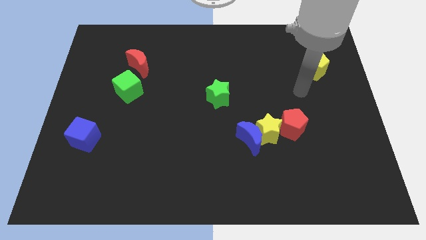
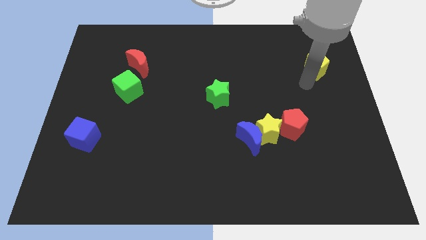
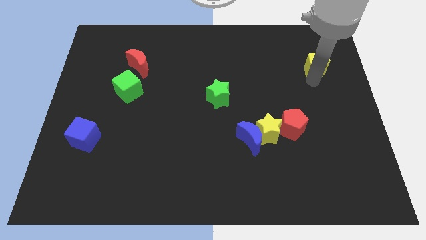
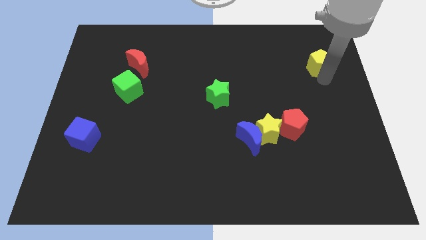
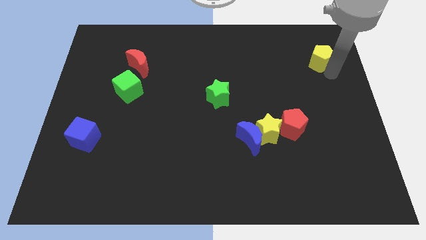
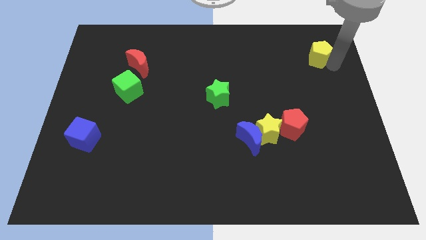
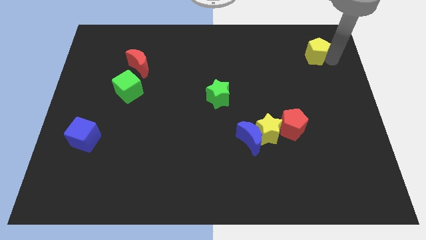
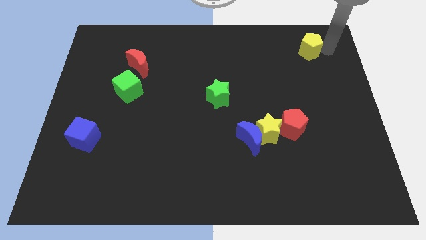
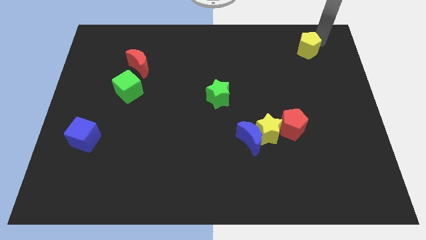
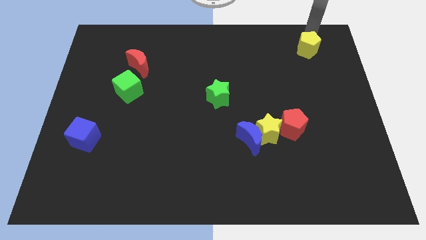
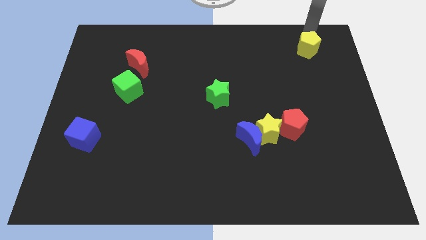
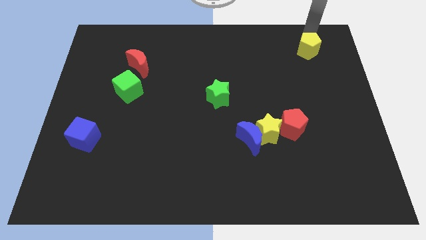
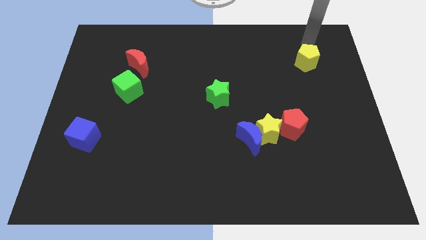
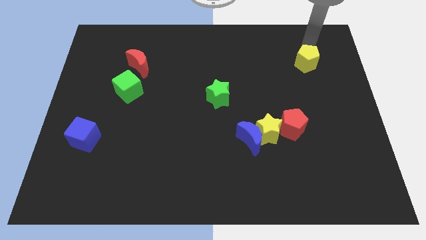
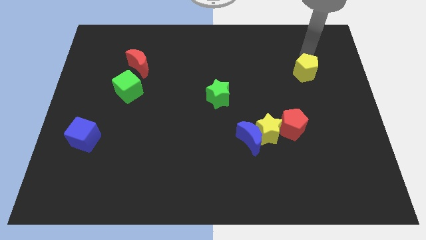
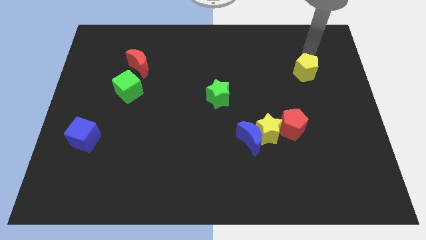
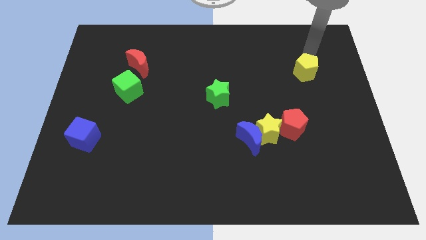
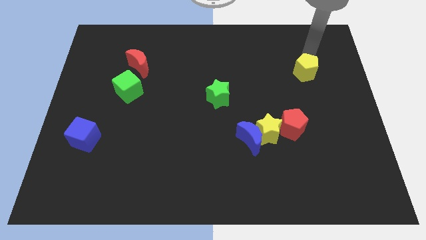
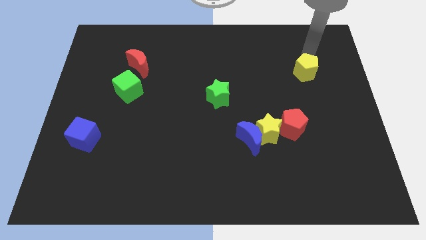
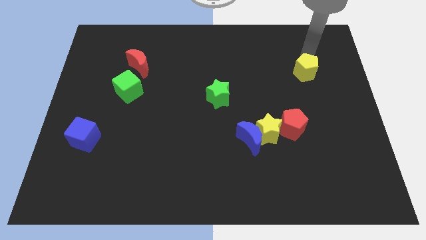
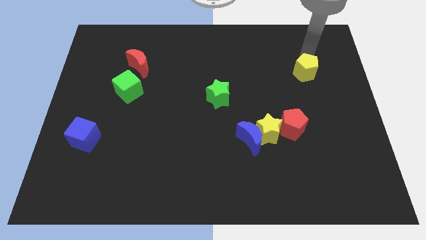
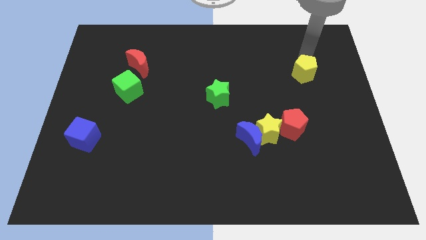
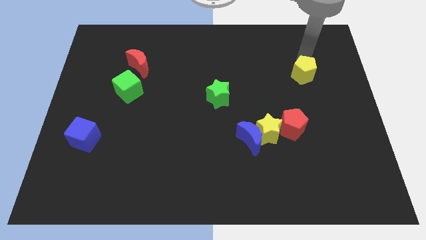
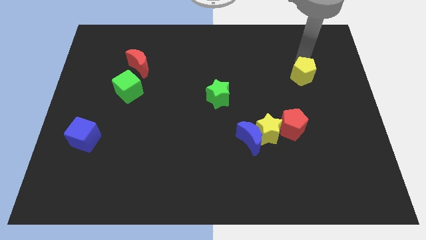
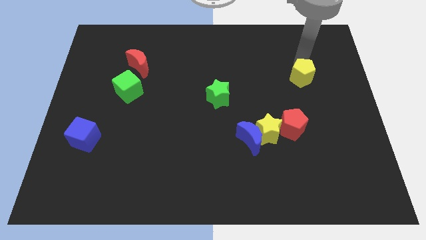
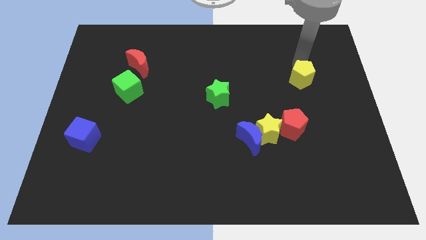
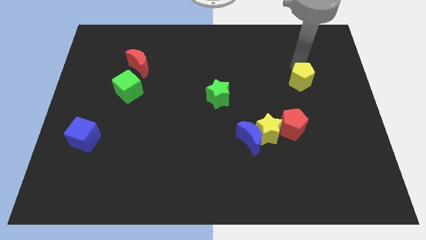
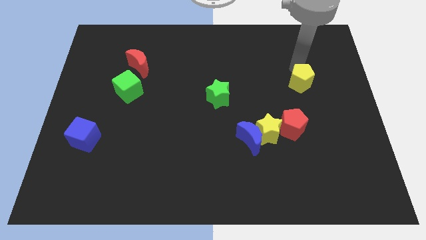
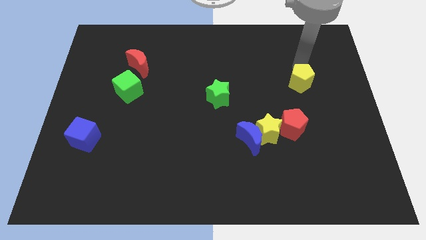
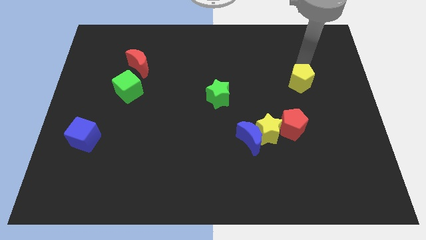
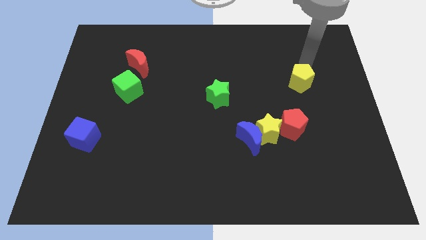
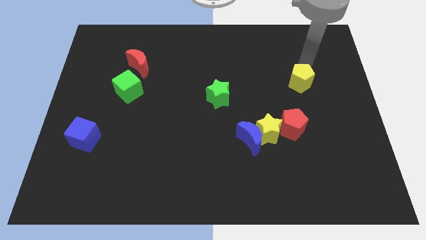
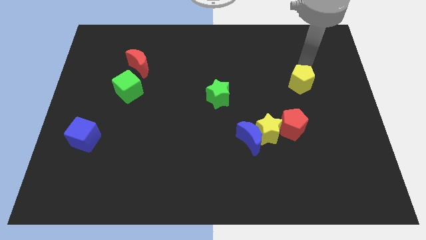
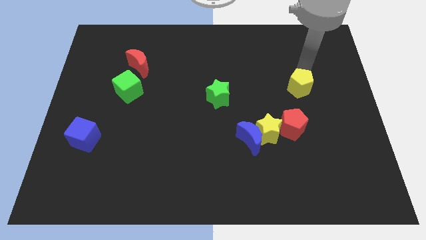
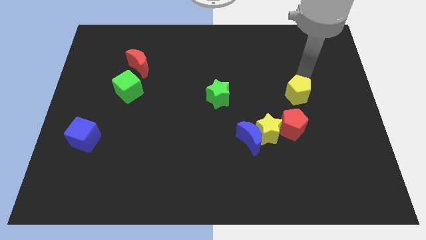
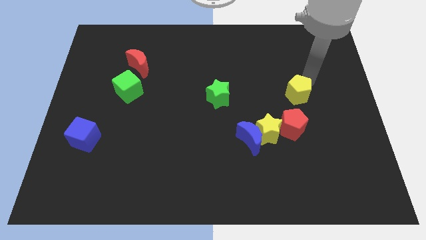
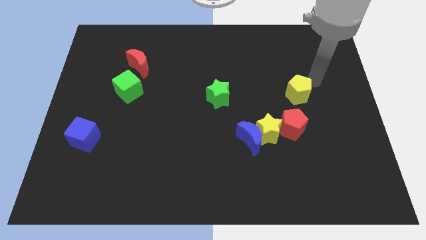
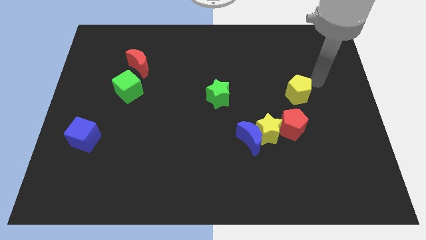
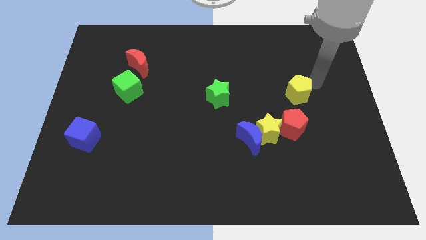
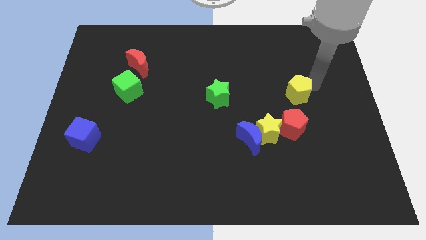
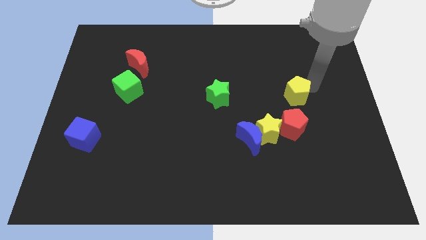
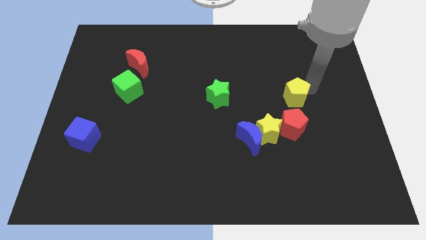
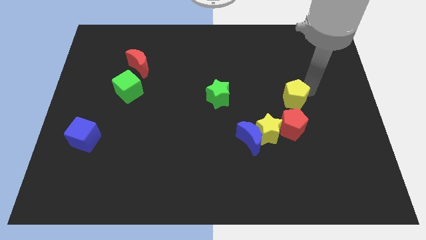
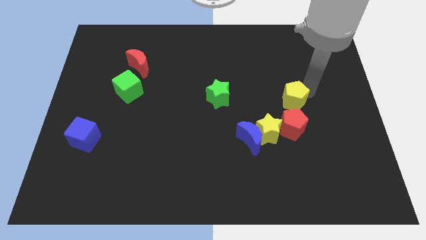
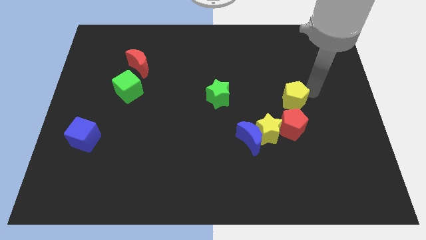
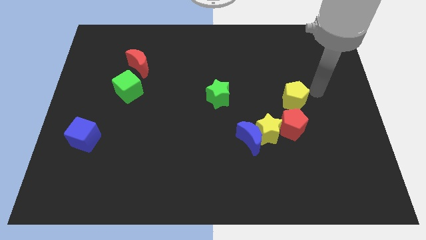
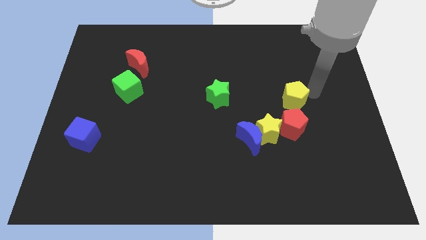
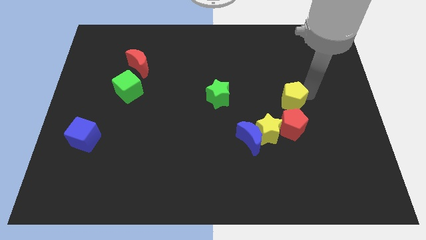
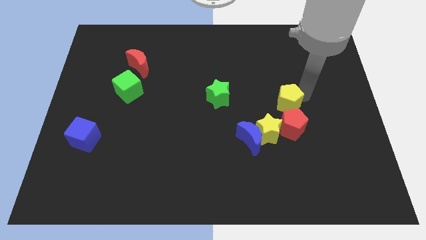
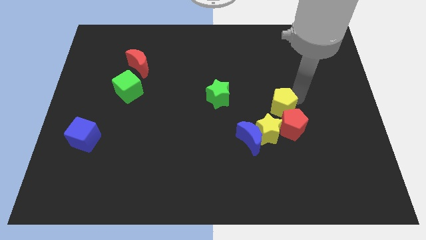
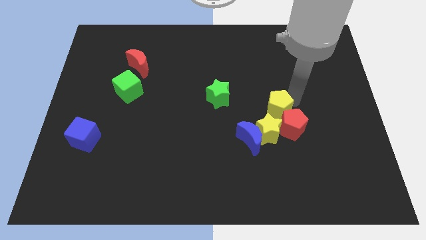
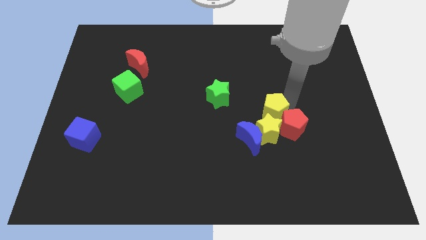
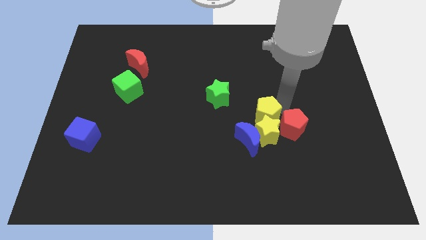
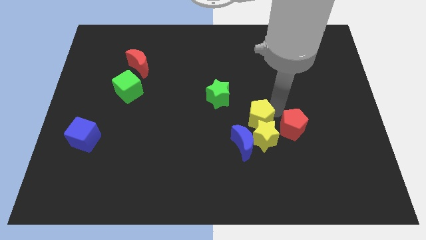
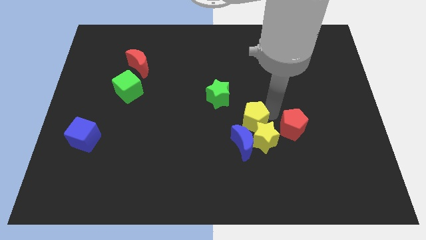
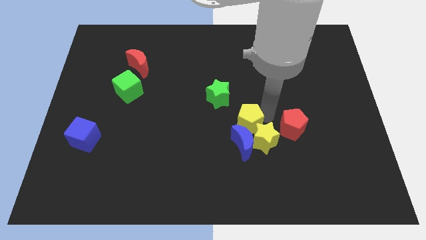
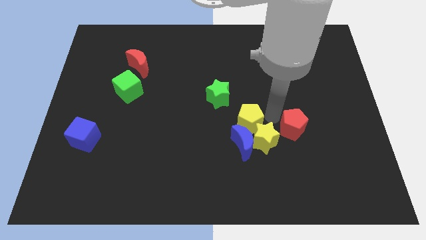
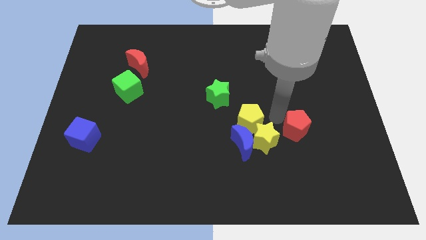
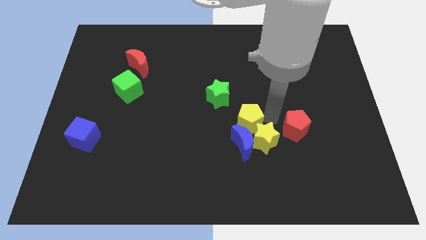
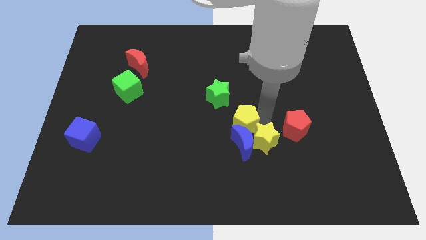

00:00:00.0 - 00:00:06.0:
slide the yellow pentagon to the top left side of the blue moon

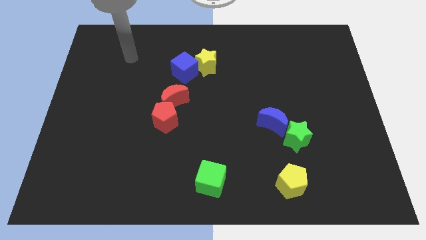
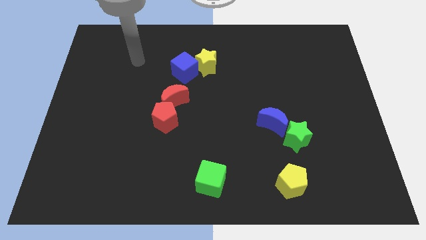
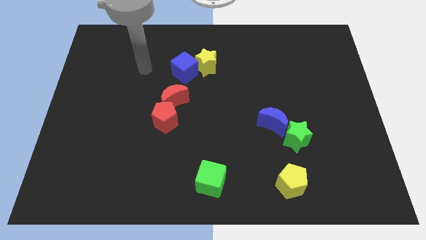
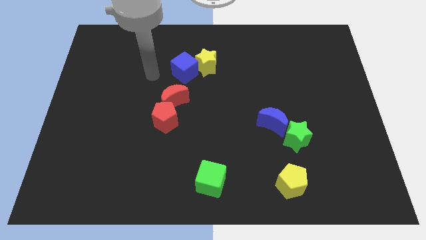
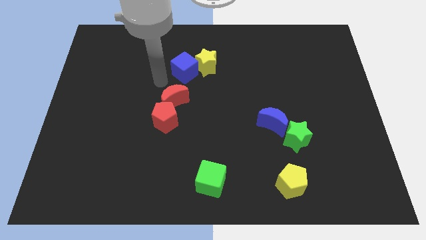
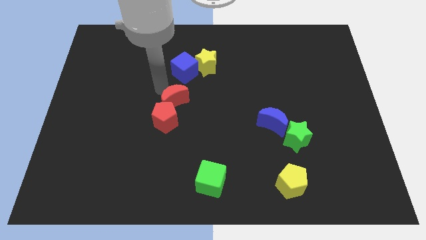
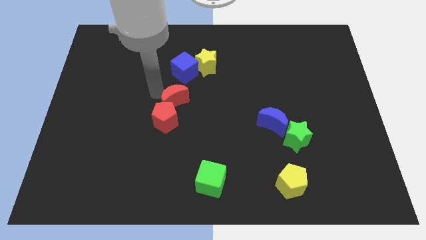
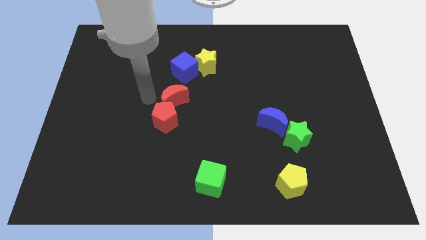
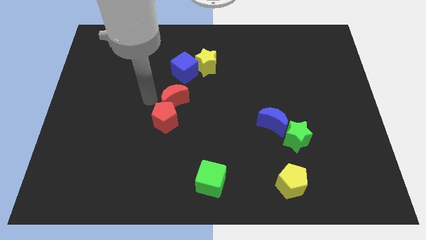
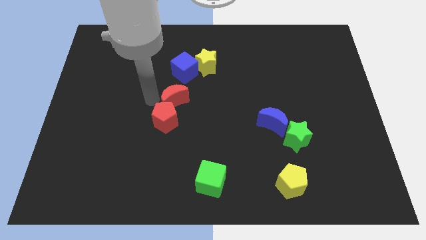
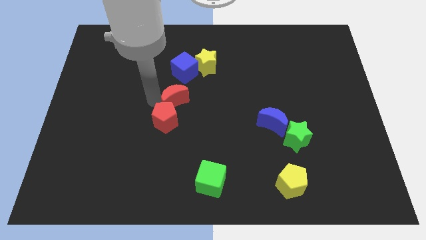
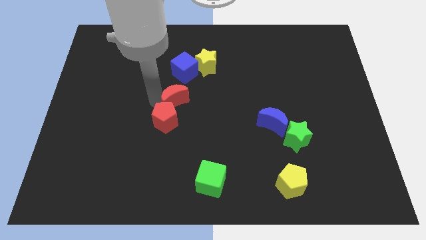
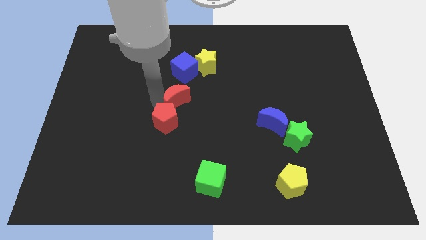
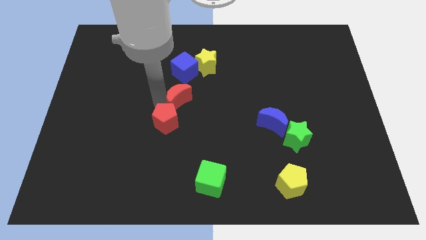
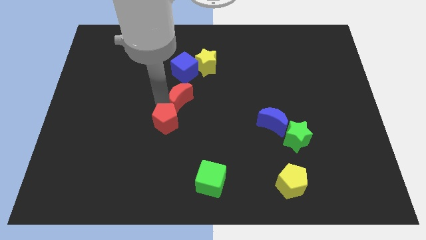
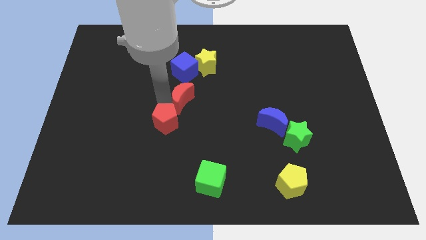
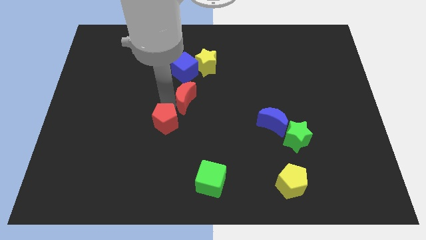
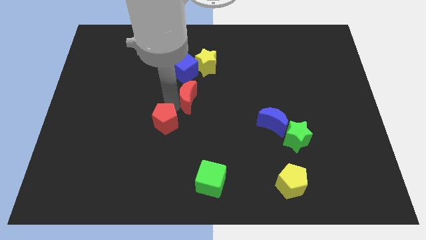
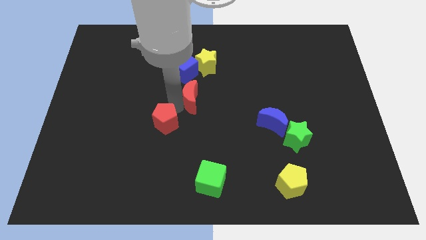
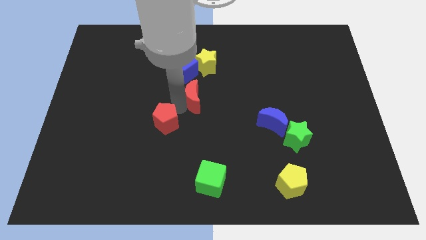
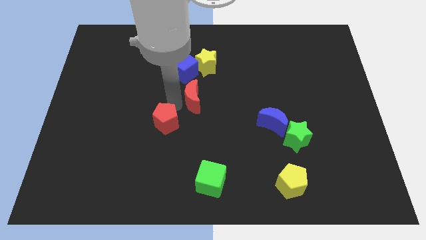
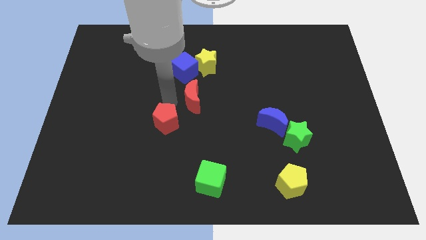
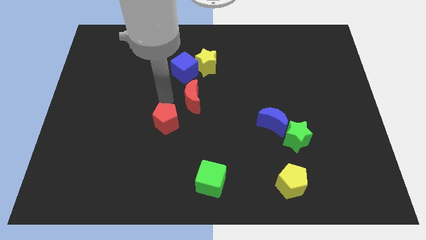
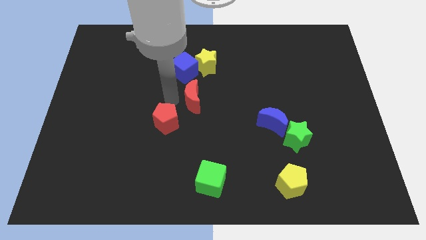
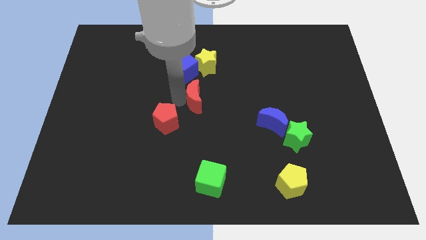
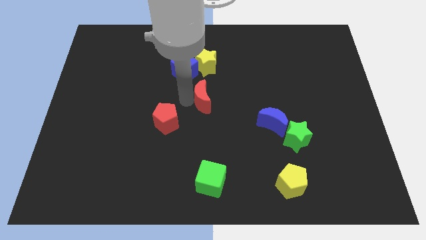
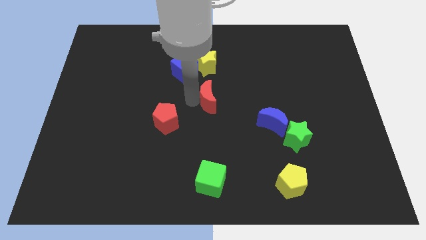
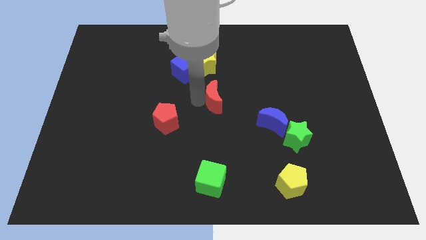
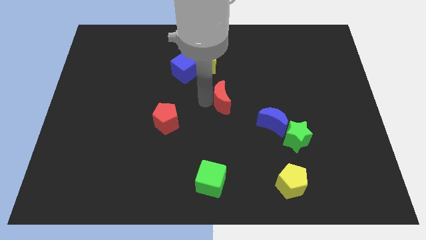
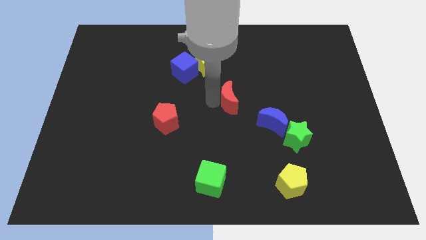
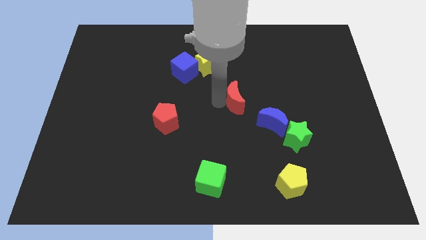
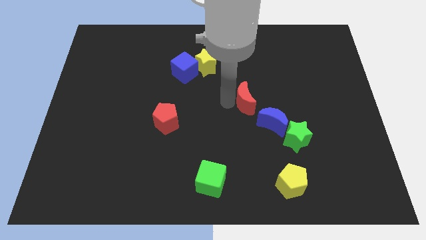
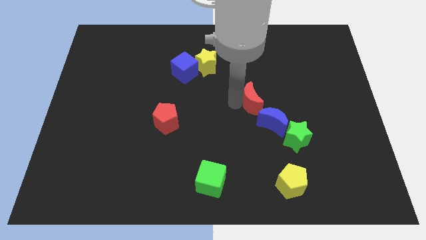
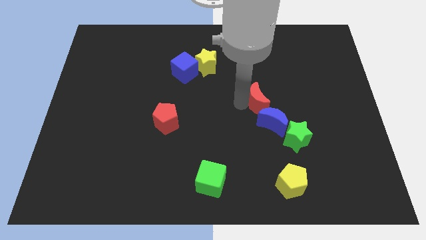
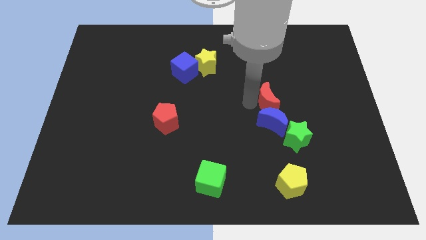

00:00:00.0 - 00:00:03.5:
put the red moon diagonally up and to the right of the blue moon
